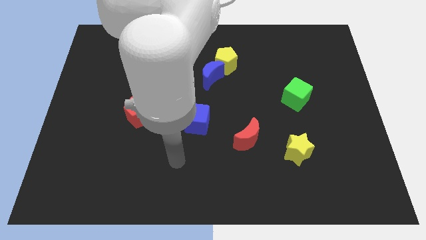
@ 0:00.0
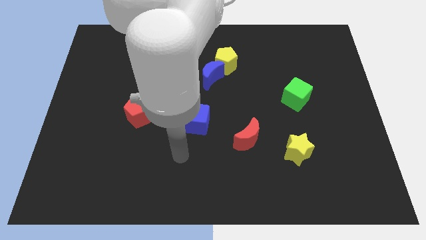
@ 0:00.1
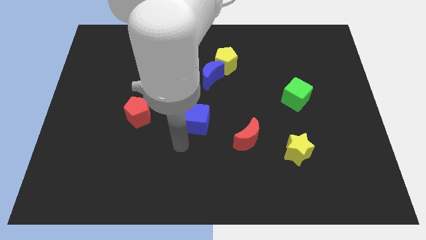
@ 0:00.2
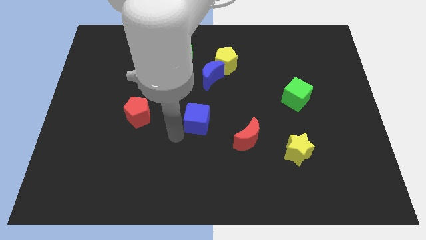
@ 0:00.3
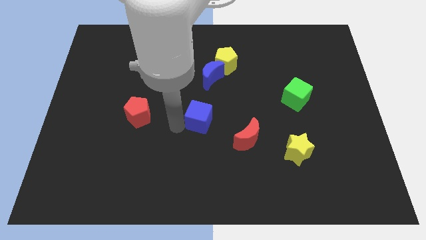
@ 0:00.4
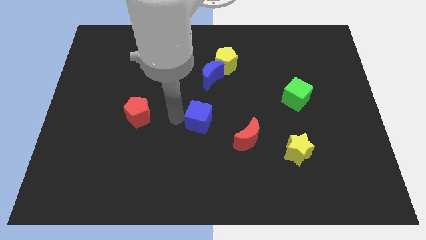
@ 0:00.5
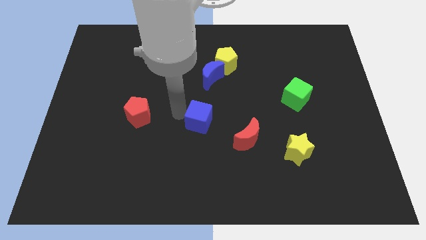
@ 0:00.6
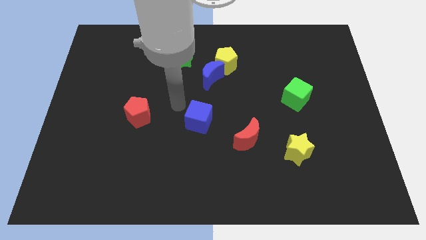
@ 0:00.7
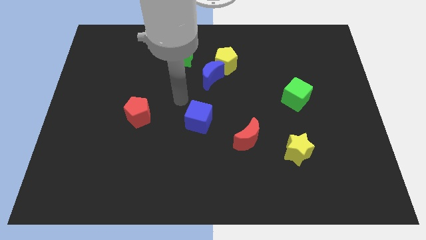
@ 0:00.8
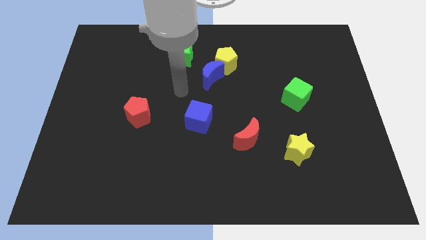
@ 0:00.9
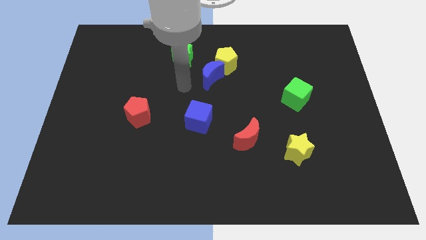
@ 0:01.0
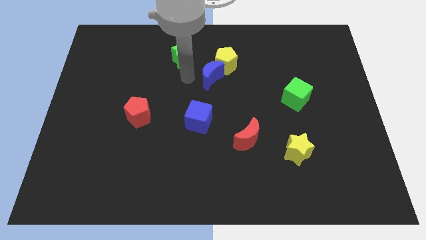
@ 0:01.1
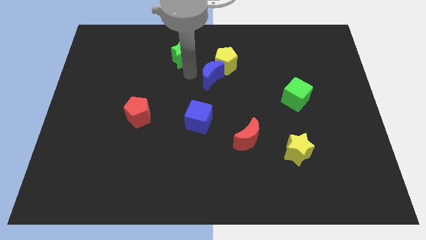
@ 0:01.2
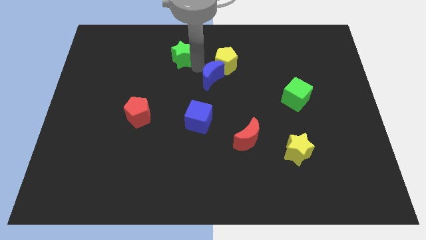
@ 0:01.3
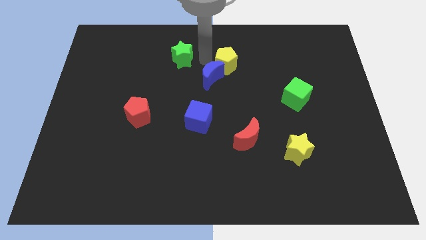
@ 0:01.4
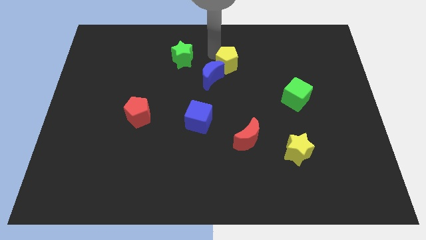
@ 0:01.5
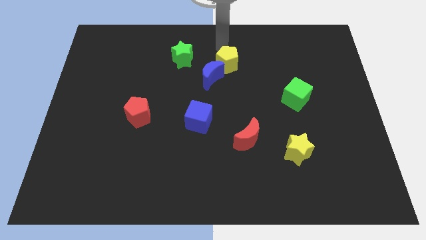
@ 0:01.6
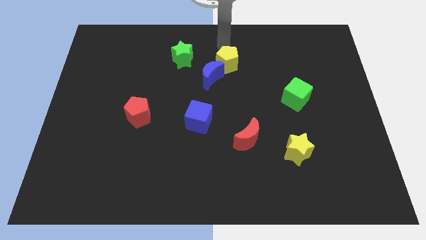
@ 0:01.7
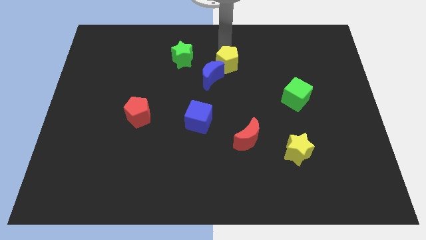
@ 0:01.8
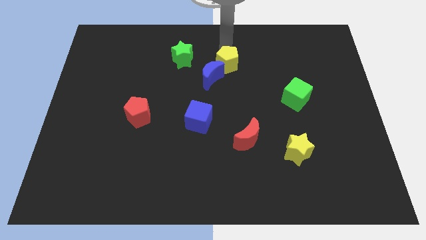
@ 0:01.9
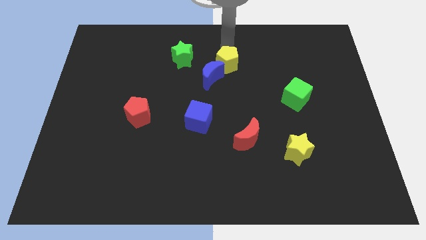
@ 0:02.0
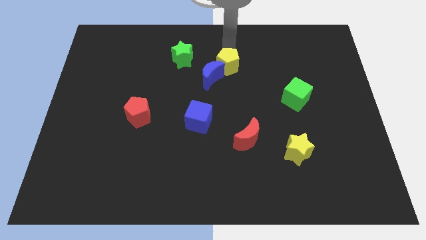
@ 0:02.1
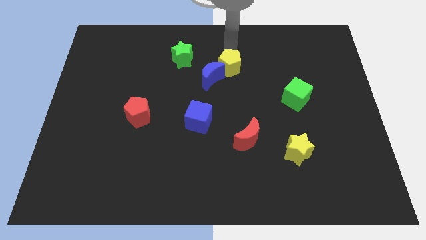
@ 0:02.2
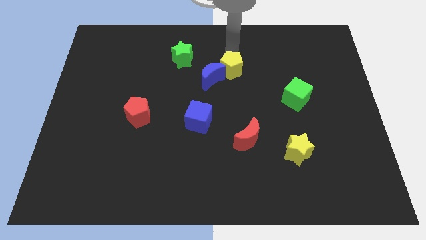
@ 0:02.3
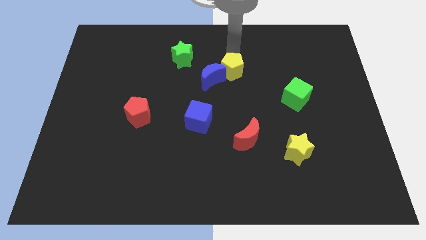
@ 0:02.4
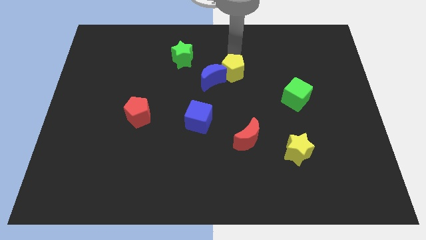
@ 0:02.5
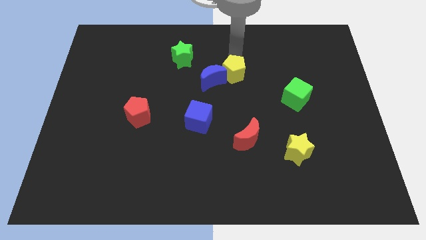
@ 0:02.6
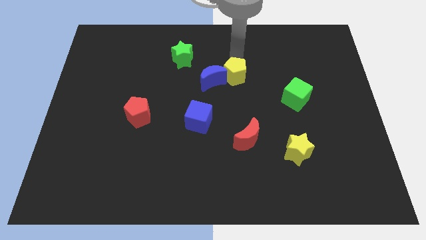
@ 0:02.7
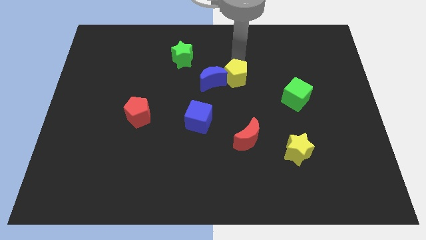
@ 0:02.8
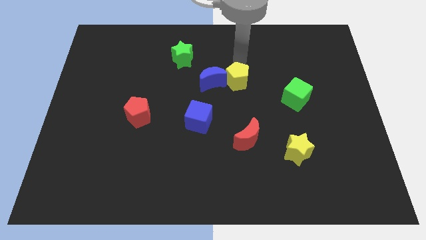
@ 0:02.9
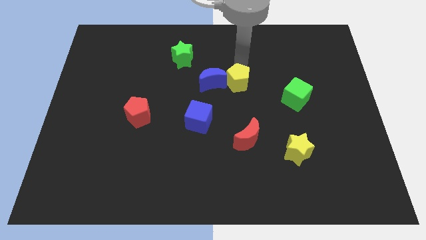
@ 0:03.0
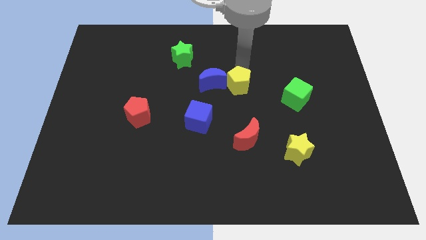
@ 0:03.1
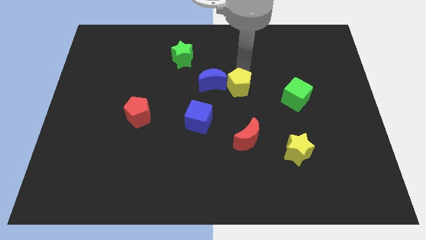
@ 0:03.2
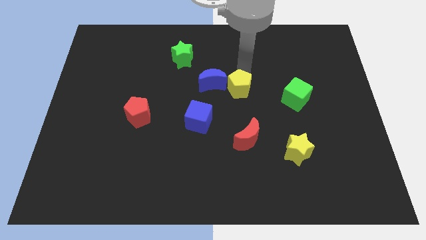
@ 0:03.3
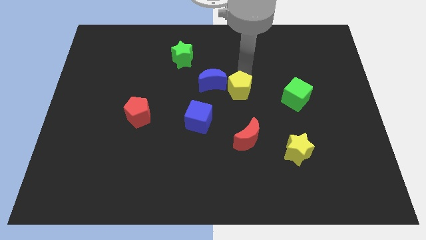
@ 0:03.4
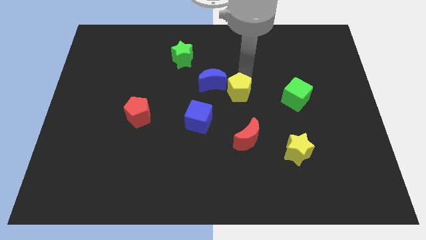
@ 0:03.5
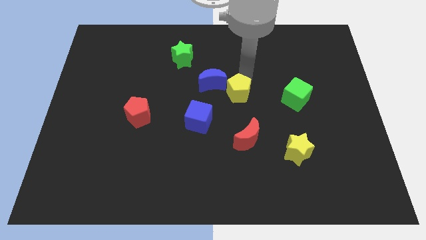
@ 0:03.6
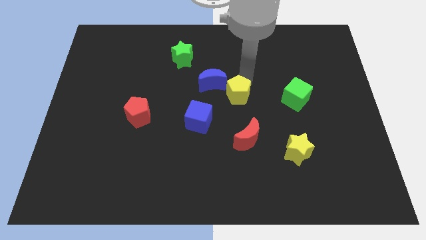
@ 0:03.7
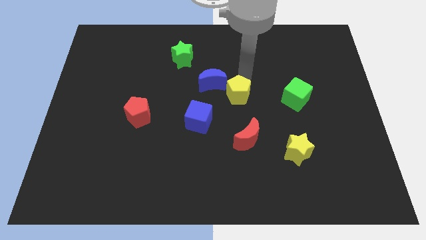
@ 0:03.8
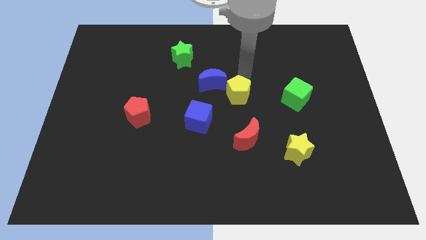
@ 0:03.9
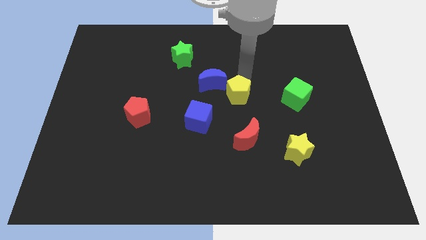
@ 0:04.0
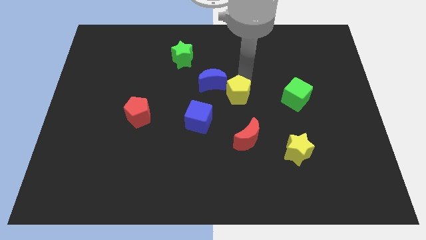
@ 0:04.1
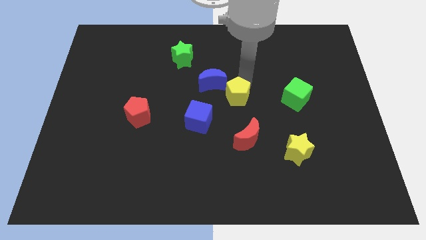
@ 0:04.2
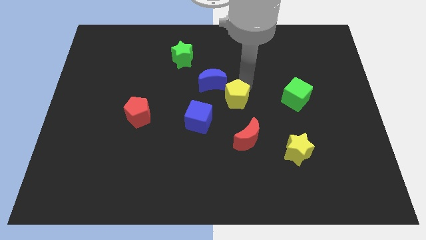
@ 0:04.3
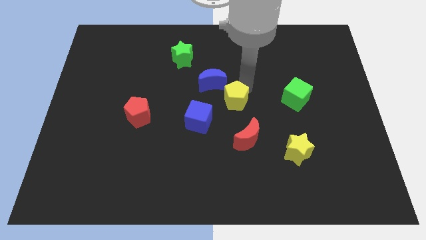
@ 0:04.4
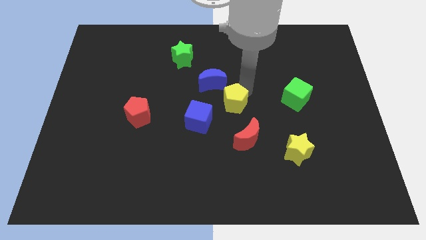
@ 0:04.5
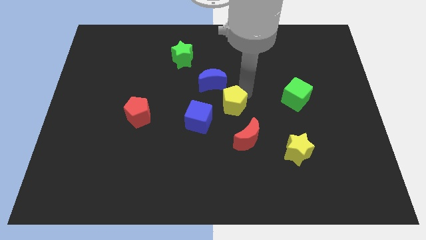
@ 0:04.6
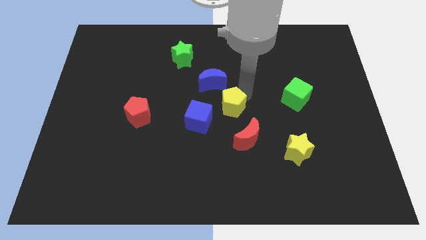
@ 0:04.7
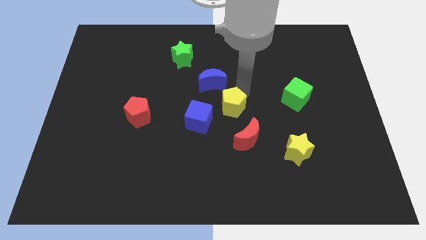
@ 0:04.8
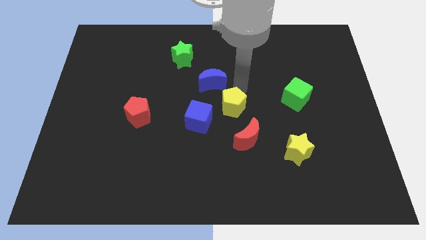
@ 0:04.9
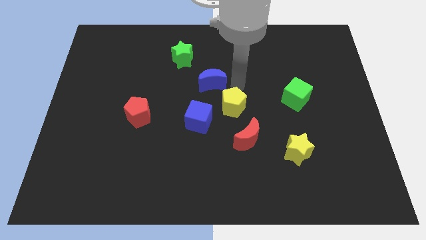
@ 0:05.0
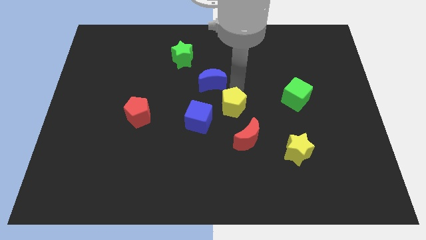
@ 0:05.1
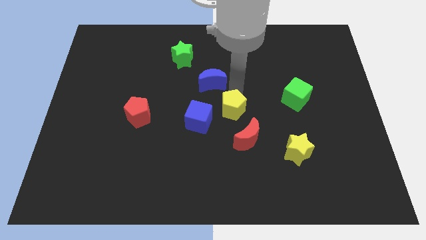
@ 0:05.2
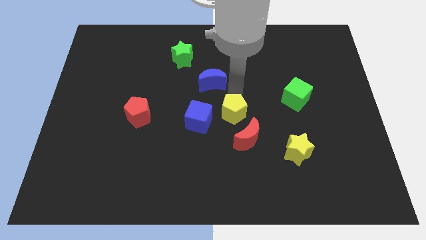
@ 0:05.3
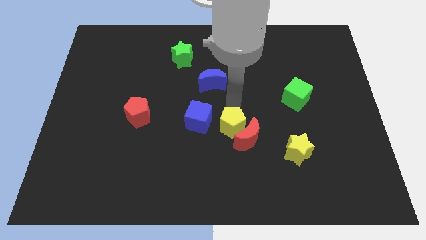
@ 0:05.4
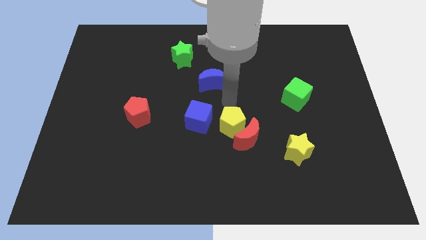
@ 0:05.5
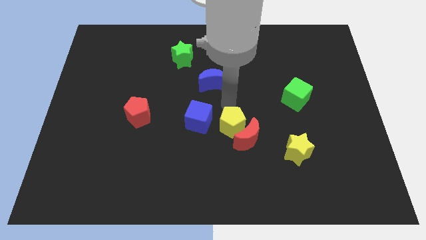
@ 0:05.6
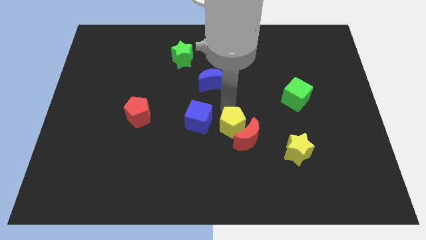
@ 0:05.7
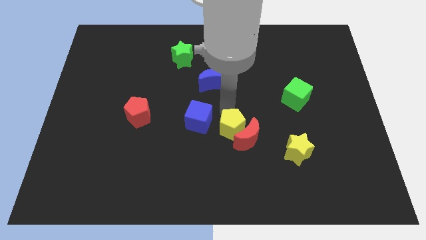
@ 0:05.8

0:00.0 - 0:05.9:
push the yellow pentagon down

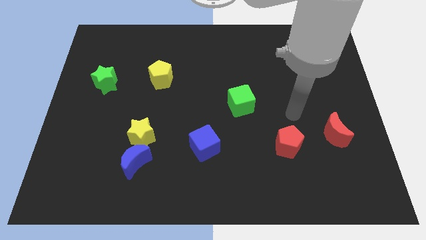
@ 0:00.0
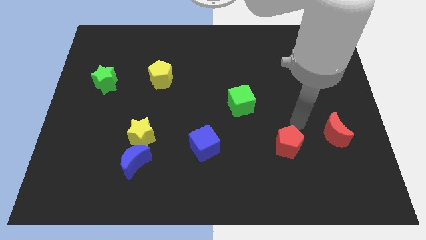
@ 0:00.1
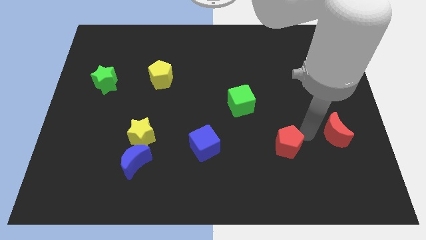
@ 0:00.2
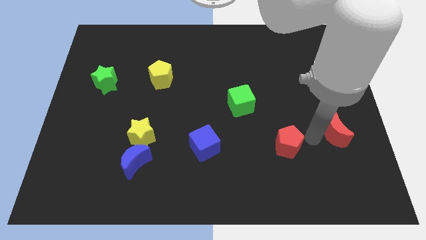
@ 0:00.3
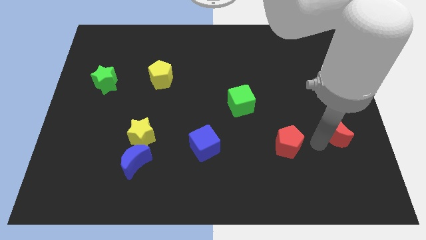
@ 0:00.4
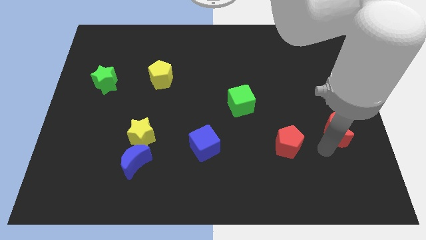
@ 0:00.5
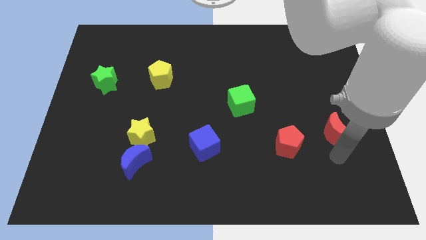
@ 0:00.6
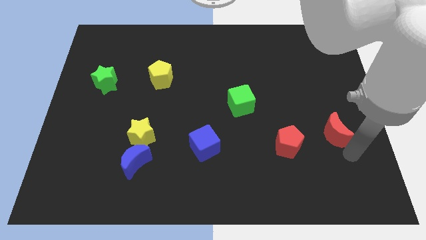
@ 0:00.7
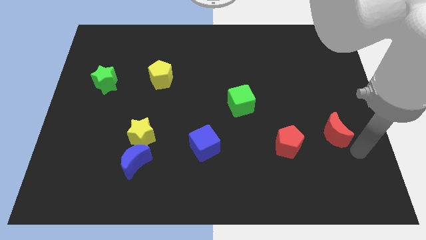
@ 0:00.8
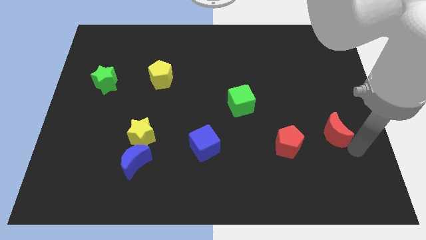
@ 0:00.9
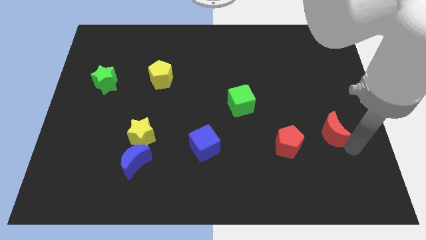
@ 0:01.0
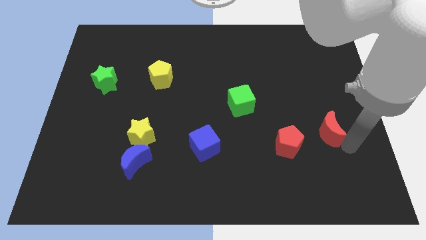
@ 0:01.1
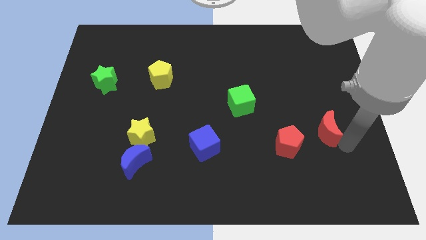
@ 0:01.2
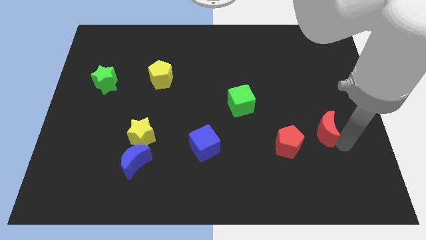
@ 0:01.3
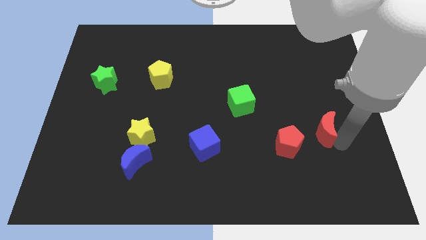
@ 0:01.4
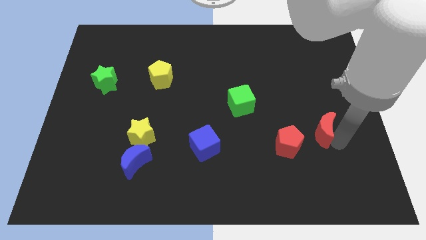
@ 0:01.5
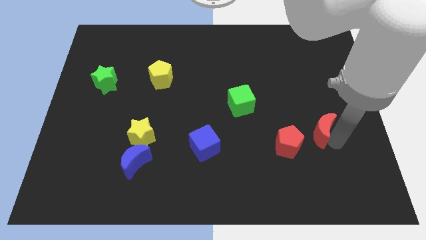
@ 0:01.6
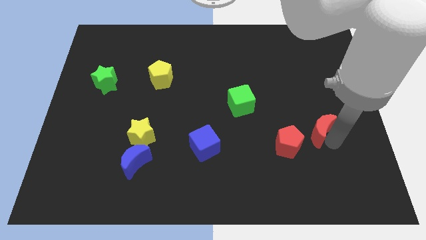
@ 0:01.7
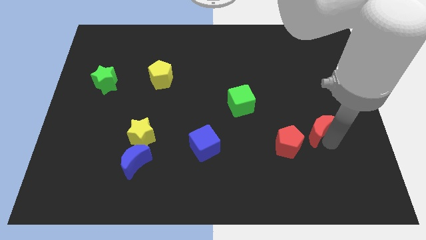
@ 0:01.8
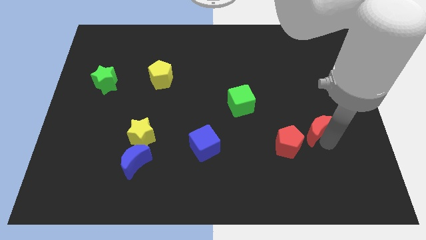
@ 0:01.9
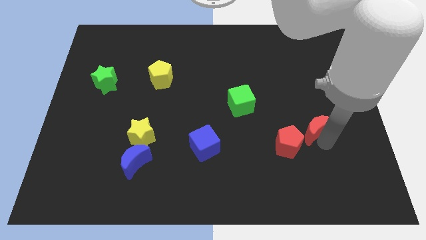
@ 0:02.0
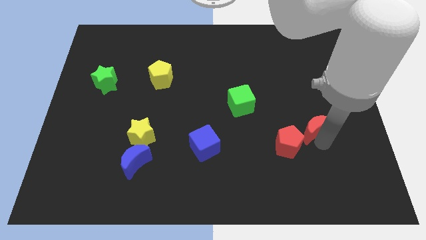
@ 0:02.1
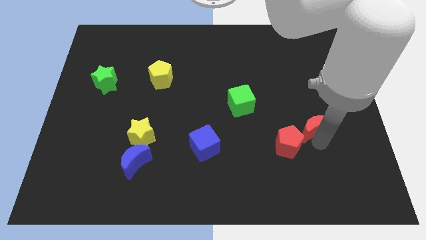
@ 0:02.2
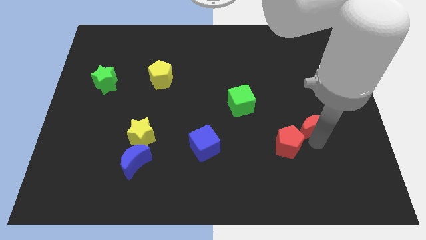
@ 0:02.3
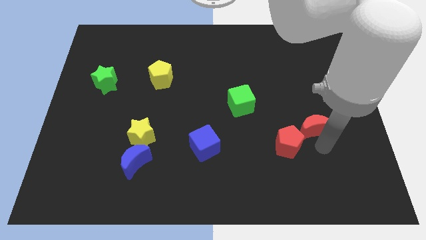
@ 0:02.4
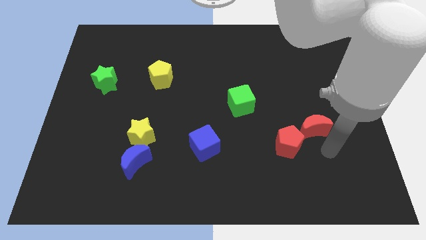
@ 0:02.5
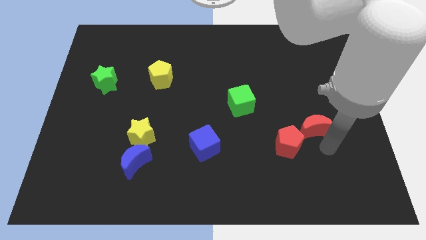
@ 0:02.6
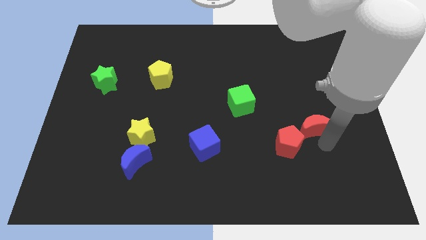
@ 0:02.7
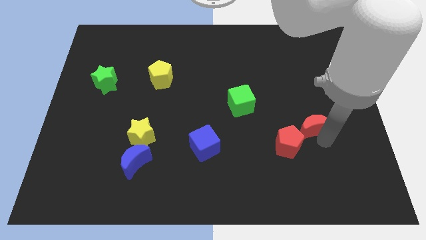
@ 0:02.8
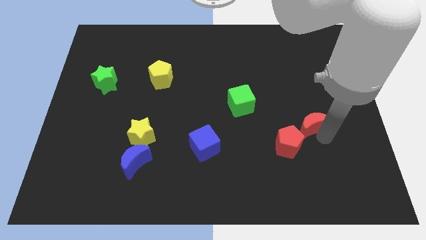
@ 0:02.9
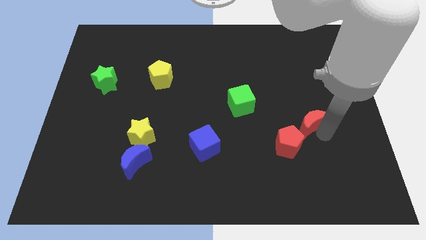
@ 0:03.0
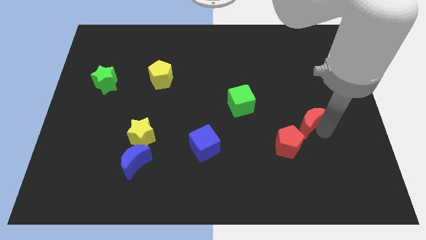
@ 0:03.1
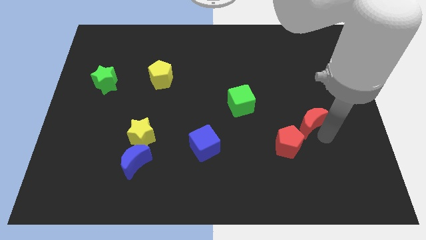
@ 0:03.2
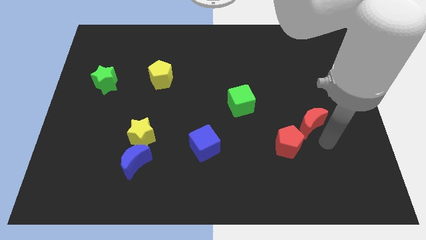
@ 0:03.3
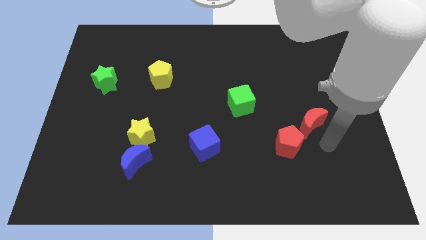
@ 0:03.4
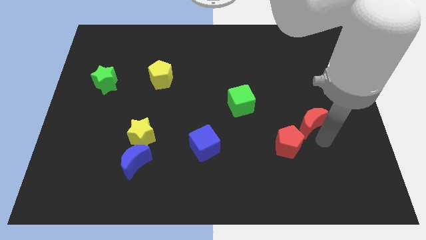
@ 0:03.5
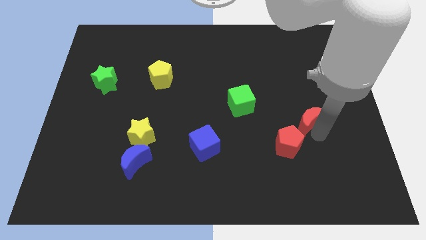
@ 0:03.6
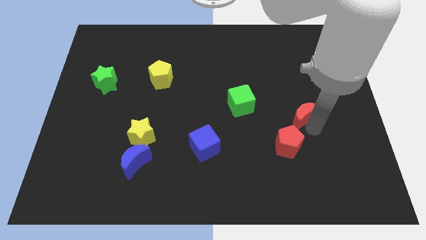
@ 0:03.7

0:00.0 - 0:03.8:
slightly slide the red moon diagonally up and left
